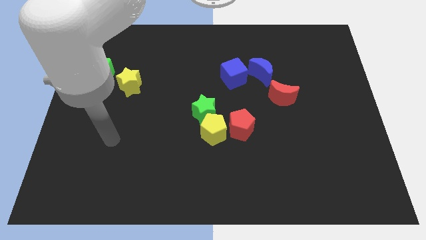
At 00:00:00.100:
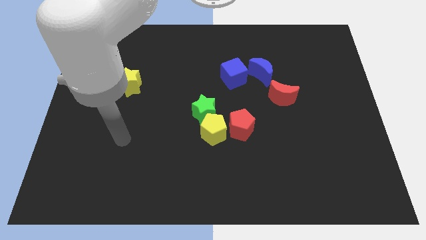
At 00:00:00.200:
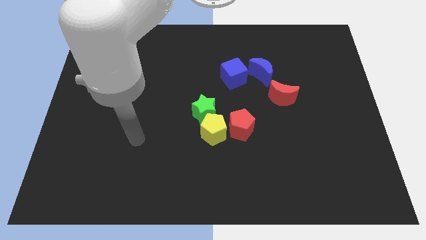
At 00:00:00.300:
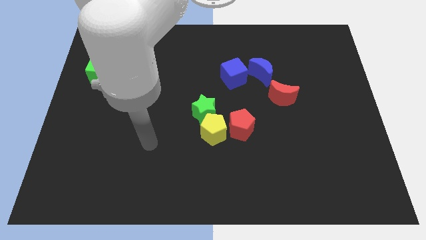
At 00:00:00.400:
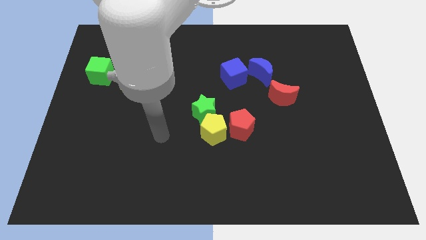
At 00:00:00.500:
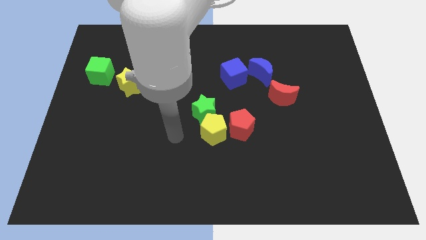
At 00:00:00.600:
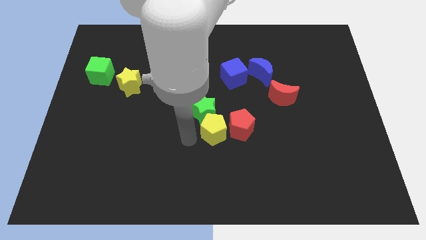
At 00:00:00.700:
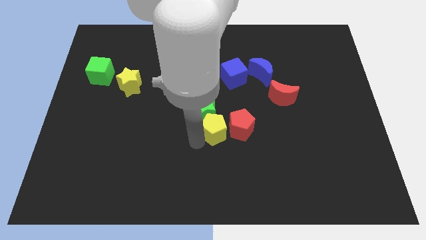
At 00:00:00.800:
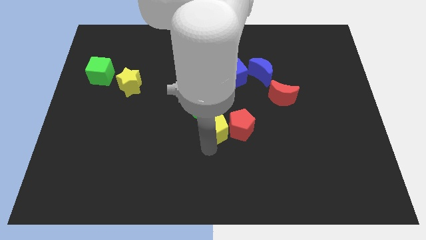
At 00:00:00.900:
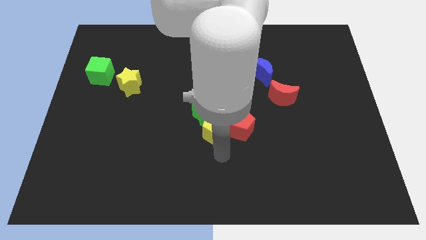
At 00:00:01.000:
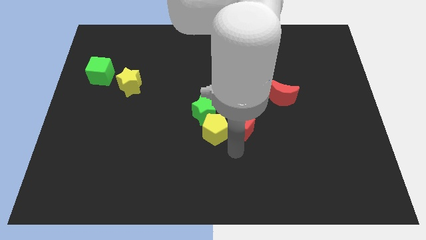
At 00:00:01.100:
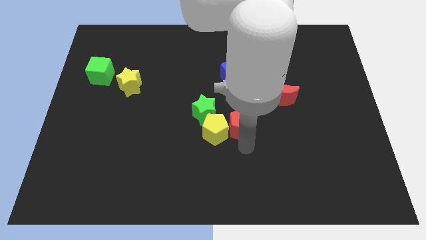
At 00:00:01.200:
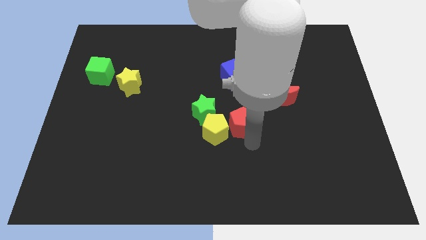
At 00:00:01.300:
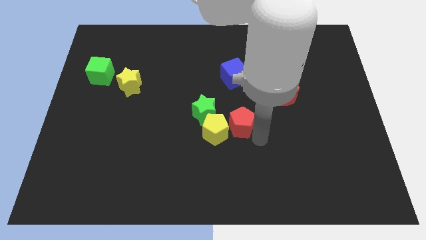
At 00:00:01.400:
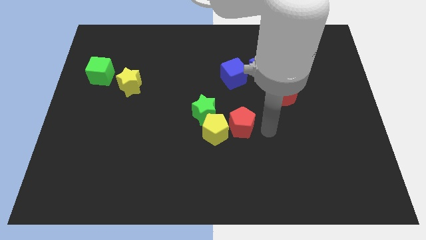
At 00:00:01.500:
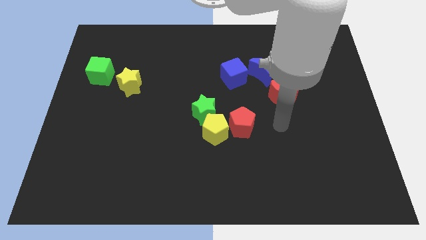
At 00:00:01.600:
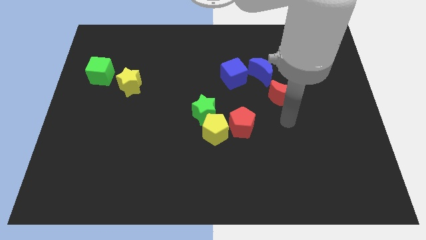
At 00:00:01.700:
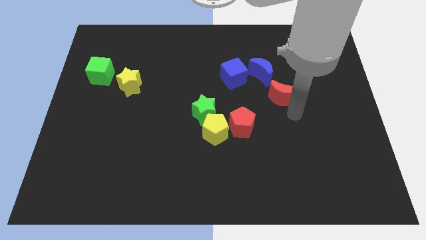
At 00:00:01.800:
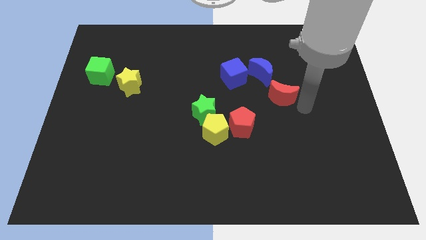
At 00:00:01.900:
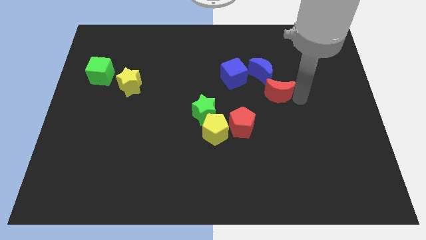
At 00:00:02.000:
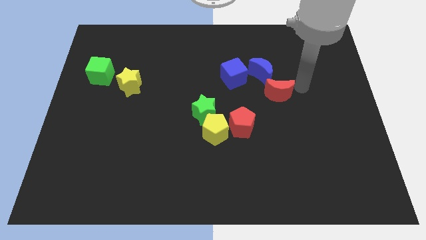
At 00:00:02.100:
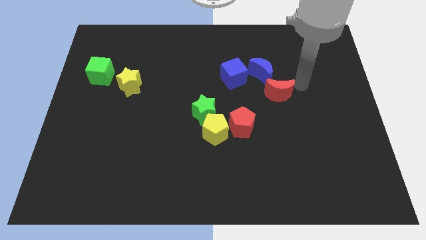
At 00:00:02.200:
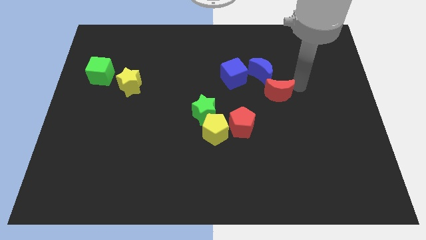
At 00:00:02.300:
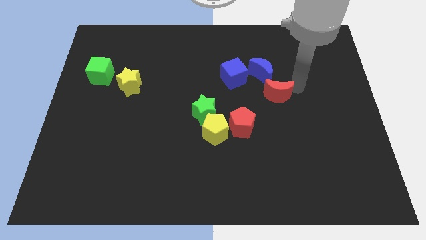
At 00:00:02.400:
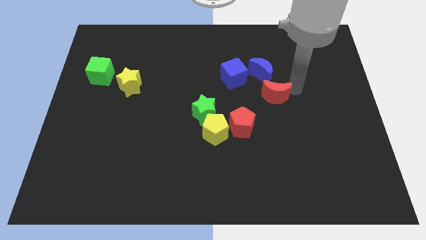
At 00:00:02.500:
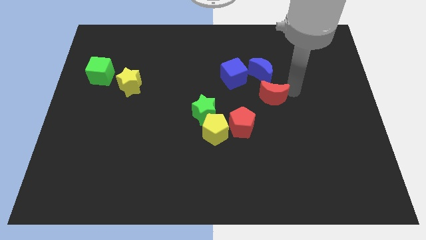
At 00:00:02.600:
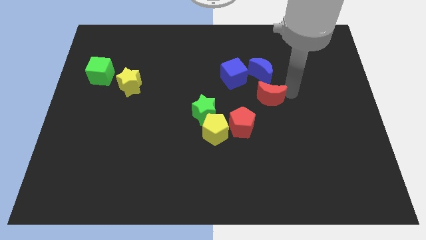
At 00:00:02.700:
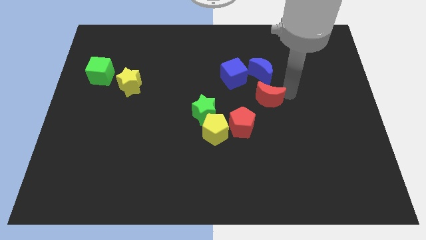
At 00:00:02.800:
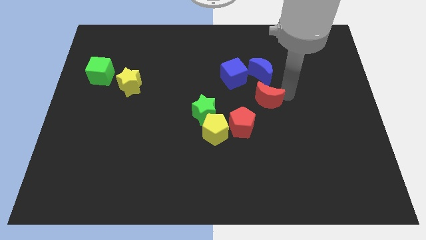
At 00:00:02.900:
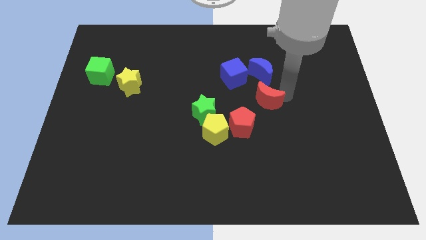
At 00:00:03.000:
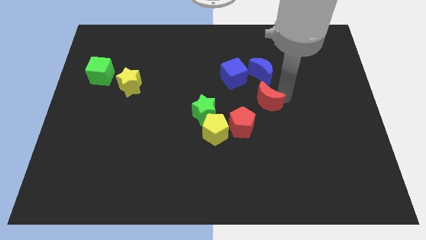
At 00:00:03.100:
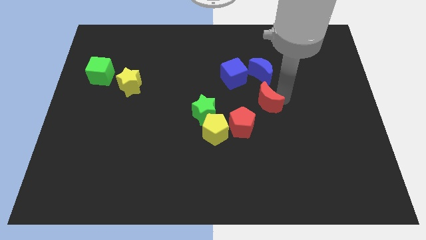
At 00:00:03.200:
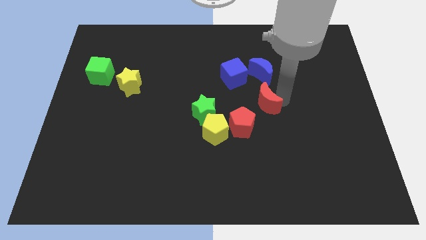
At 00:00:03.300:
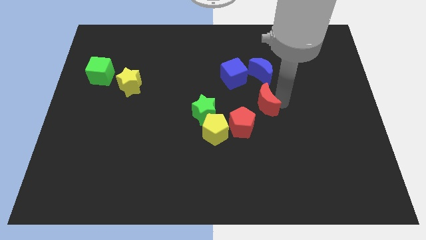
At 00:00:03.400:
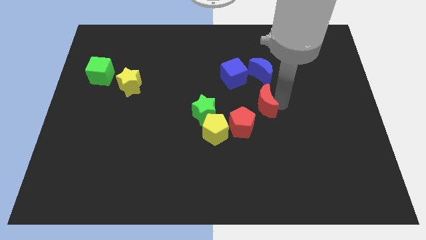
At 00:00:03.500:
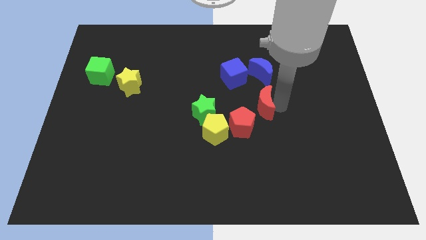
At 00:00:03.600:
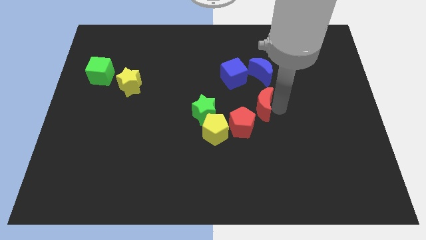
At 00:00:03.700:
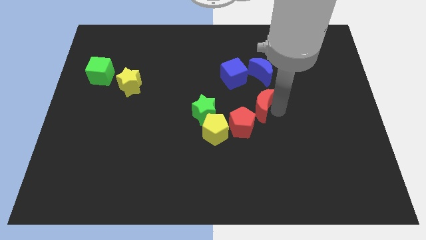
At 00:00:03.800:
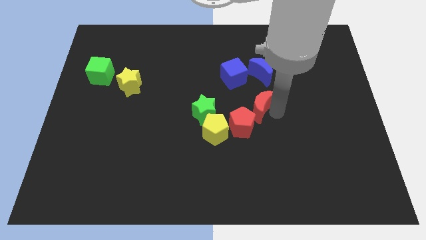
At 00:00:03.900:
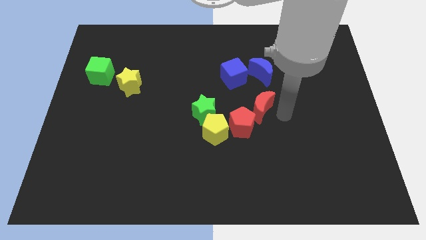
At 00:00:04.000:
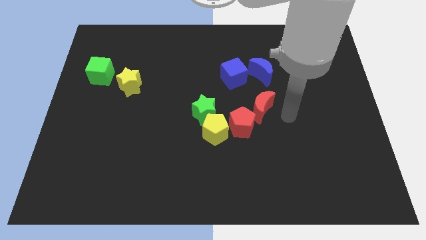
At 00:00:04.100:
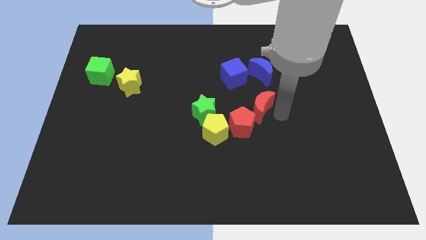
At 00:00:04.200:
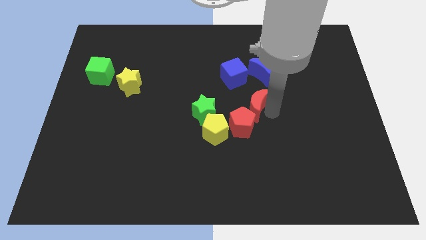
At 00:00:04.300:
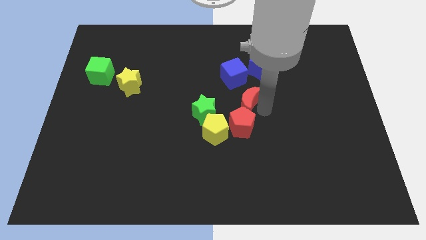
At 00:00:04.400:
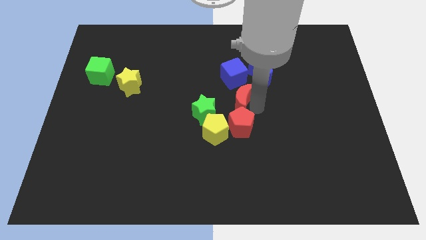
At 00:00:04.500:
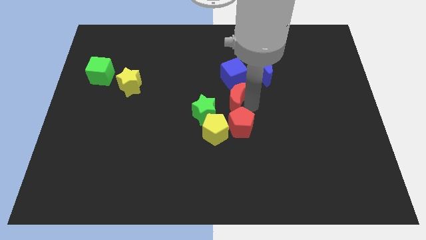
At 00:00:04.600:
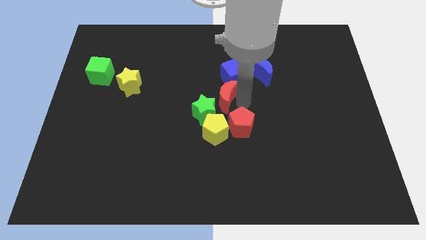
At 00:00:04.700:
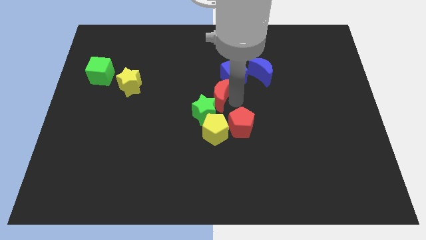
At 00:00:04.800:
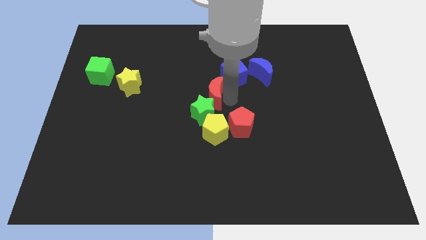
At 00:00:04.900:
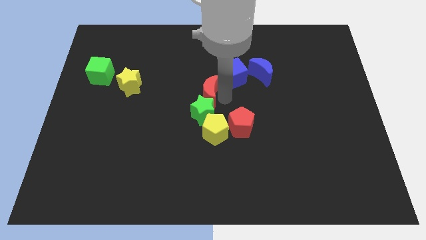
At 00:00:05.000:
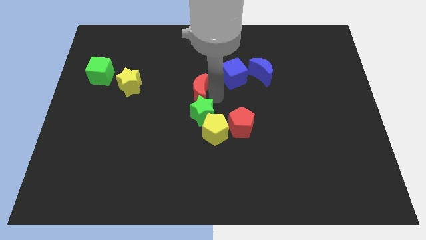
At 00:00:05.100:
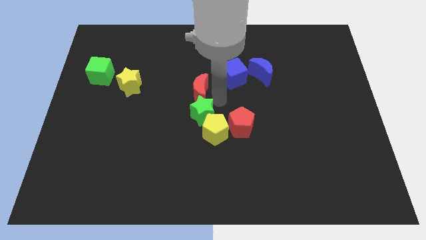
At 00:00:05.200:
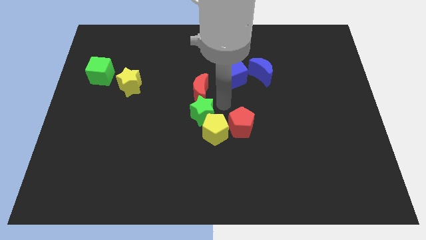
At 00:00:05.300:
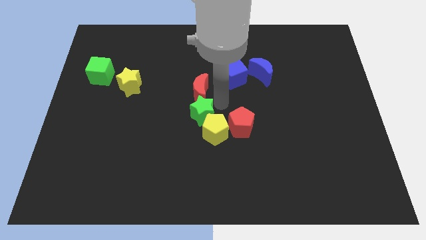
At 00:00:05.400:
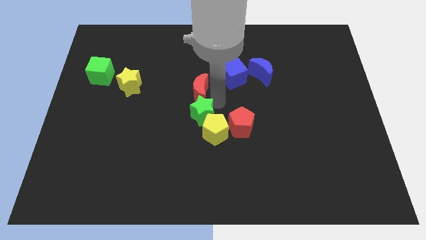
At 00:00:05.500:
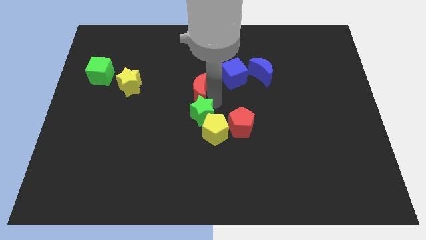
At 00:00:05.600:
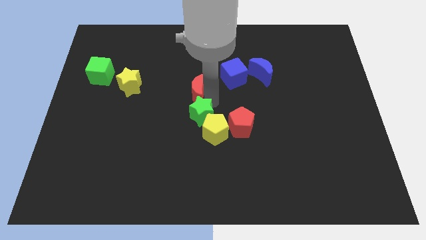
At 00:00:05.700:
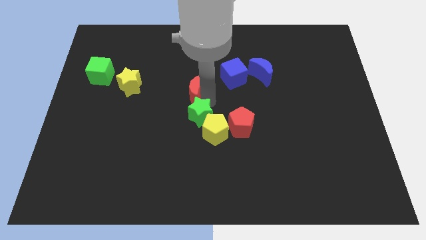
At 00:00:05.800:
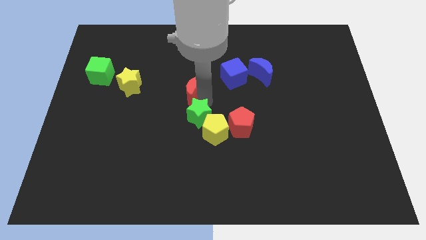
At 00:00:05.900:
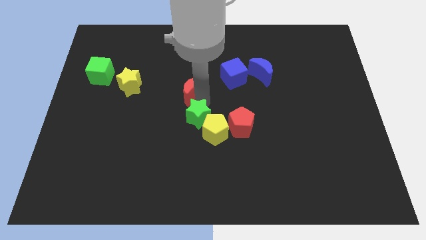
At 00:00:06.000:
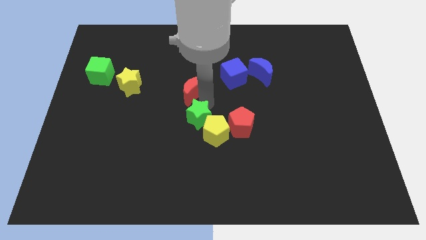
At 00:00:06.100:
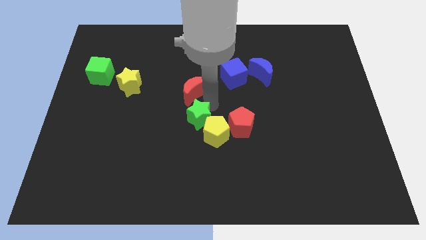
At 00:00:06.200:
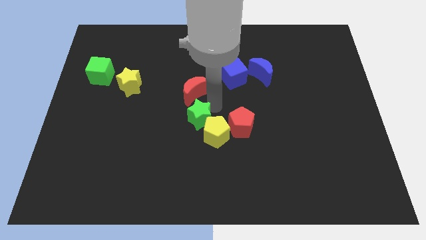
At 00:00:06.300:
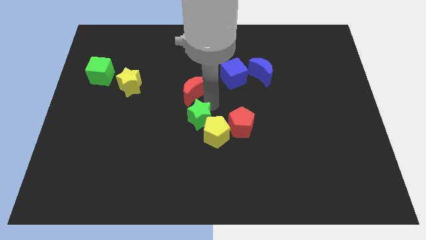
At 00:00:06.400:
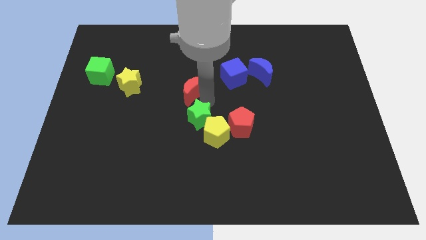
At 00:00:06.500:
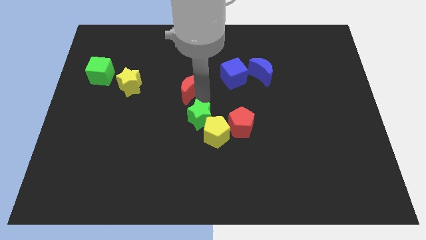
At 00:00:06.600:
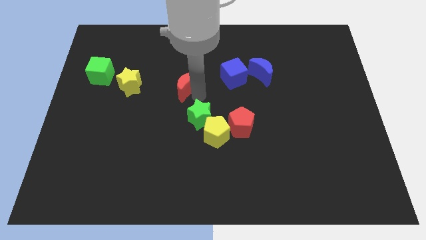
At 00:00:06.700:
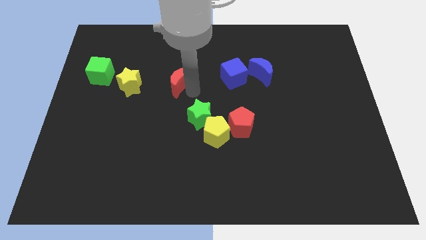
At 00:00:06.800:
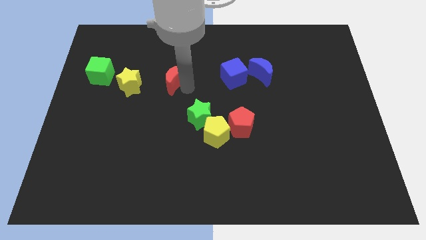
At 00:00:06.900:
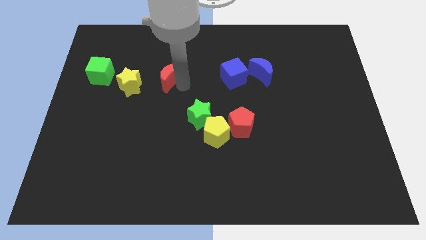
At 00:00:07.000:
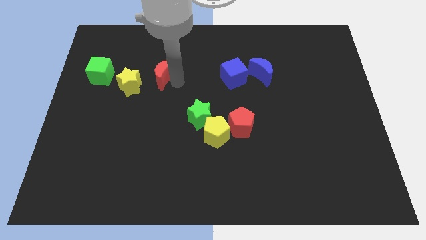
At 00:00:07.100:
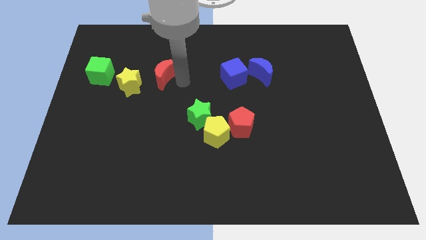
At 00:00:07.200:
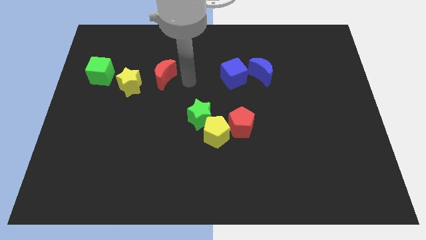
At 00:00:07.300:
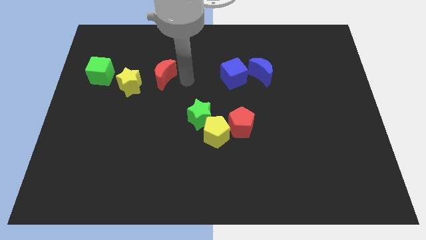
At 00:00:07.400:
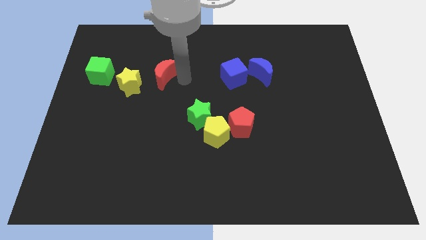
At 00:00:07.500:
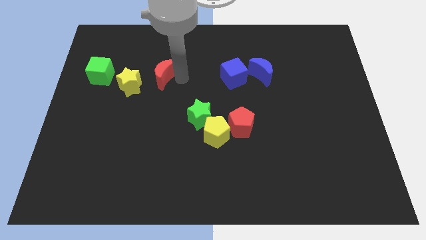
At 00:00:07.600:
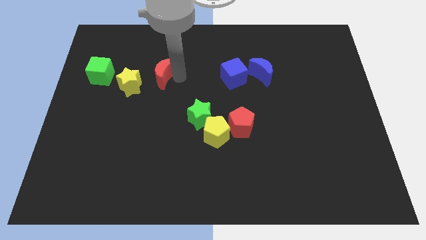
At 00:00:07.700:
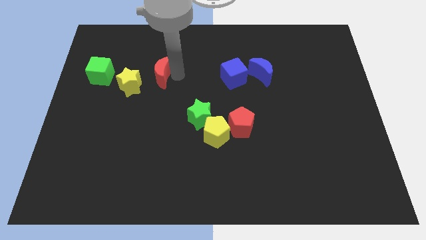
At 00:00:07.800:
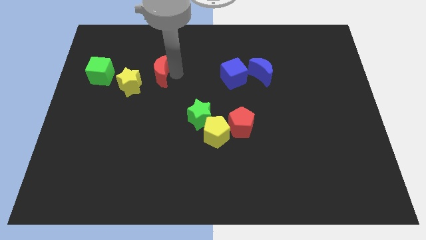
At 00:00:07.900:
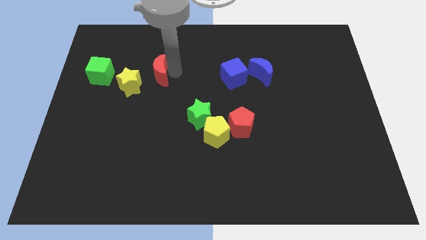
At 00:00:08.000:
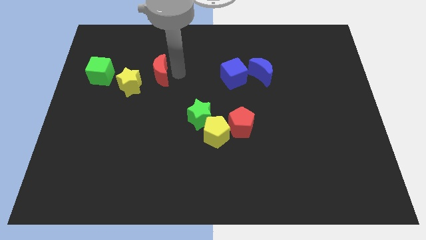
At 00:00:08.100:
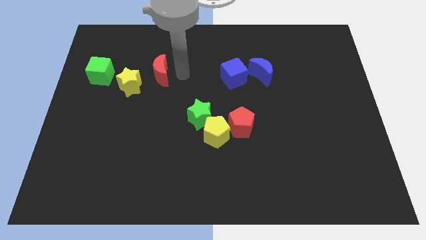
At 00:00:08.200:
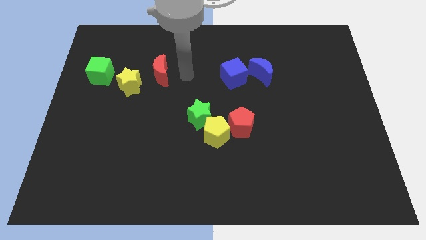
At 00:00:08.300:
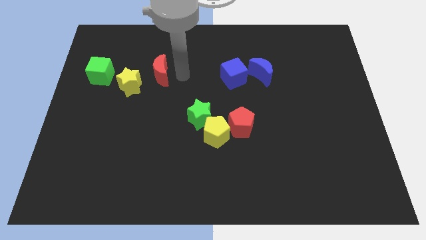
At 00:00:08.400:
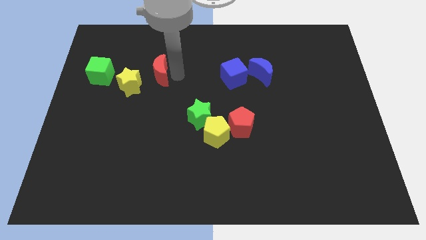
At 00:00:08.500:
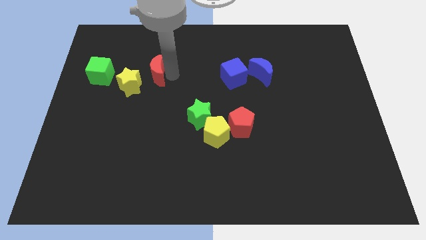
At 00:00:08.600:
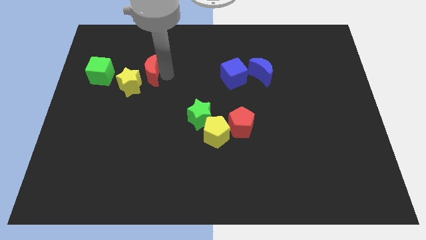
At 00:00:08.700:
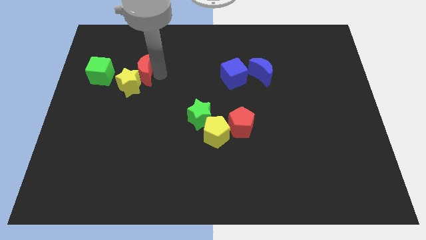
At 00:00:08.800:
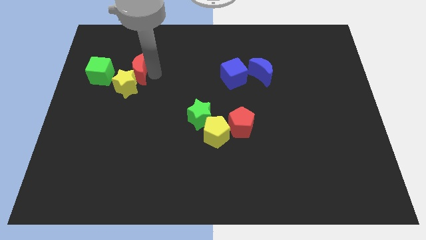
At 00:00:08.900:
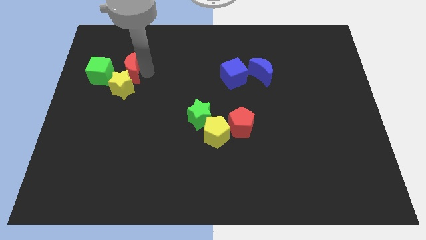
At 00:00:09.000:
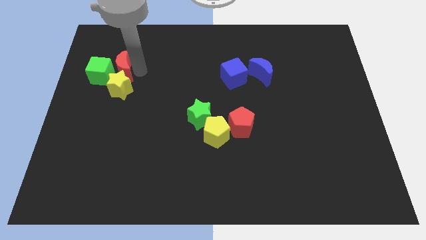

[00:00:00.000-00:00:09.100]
slide the red moon close to the green cube
